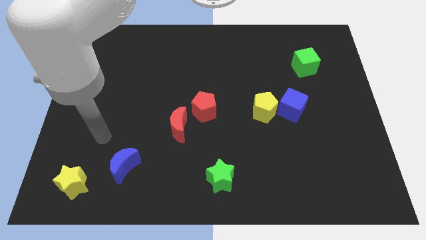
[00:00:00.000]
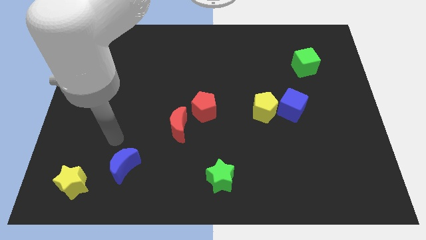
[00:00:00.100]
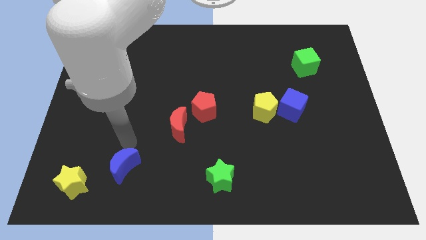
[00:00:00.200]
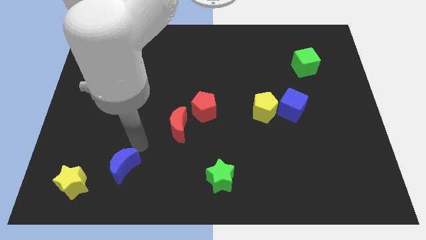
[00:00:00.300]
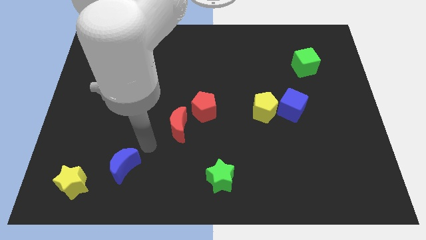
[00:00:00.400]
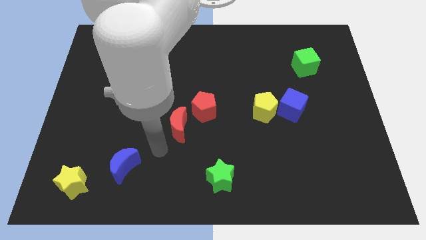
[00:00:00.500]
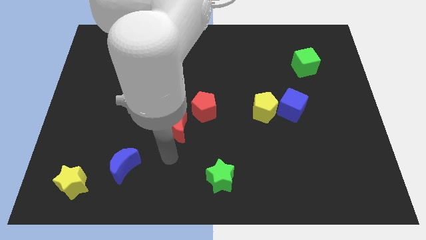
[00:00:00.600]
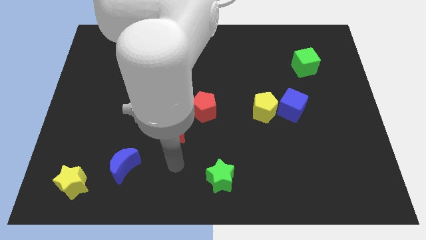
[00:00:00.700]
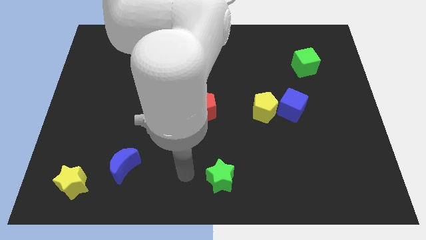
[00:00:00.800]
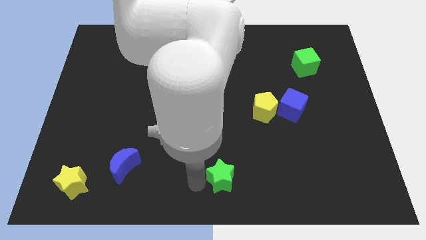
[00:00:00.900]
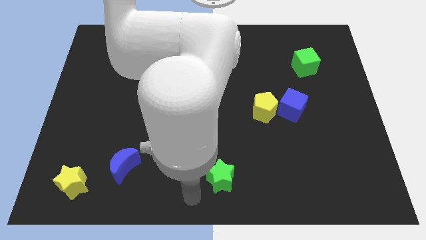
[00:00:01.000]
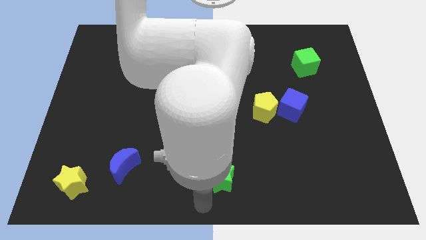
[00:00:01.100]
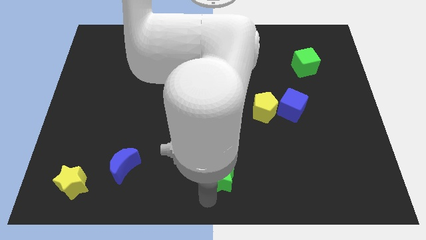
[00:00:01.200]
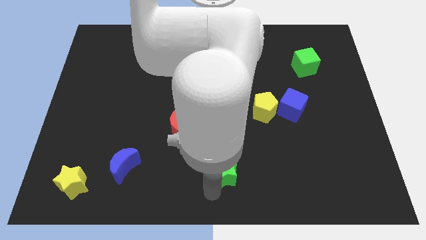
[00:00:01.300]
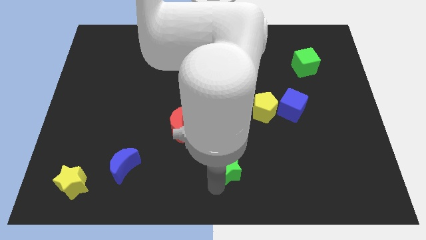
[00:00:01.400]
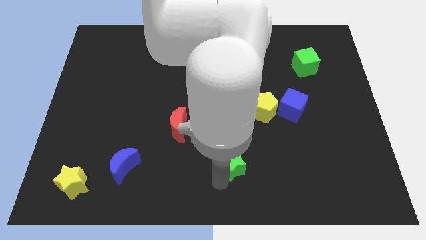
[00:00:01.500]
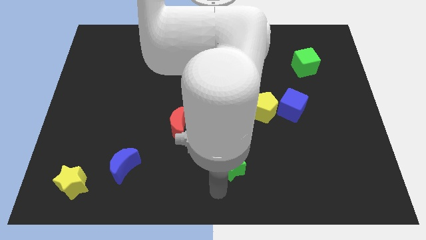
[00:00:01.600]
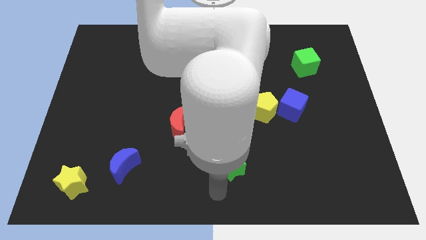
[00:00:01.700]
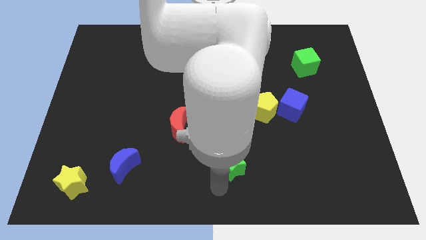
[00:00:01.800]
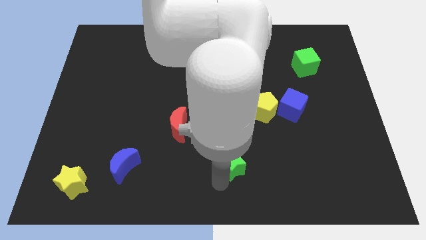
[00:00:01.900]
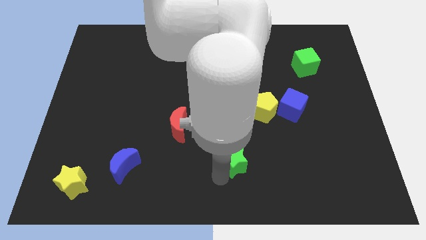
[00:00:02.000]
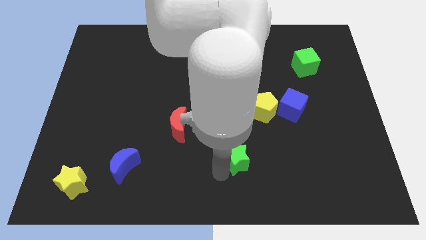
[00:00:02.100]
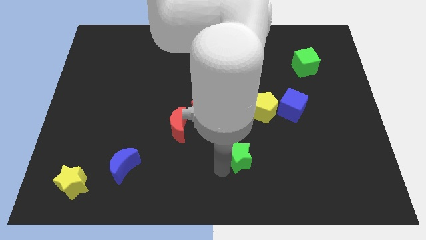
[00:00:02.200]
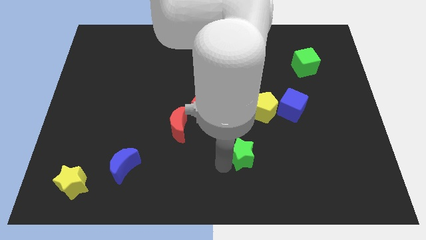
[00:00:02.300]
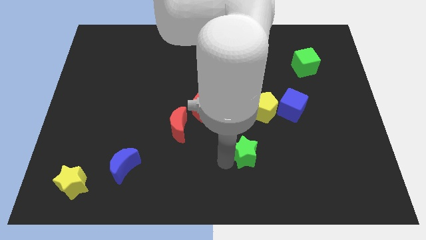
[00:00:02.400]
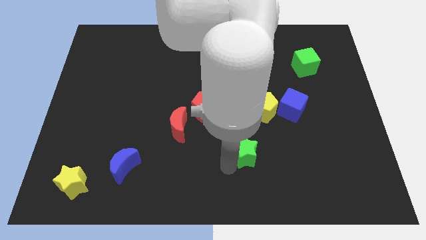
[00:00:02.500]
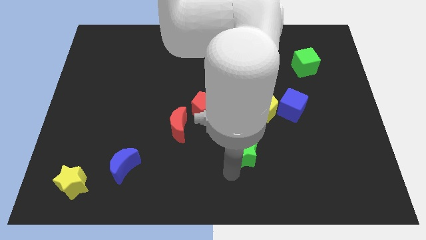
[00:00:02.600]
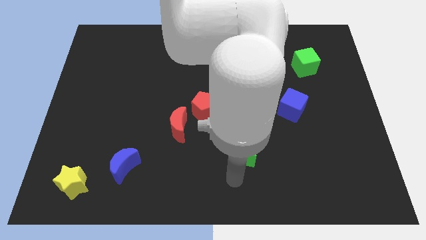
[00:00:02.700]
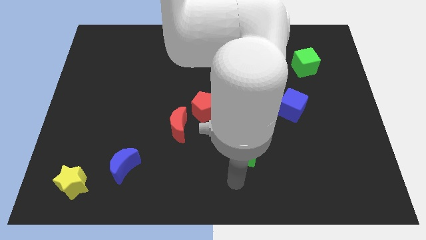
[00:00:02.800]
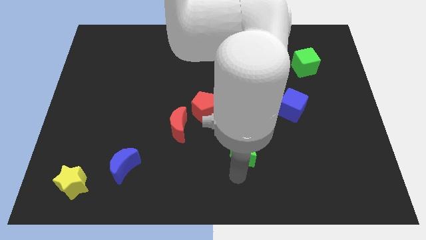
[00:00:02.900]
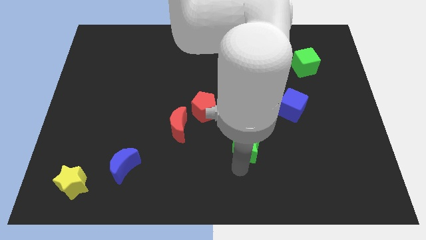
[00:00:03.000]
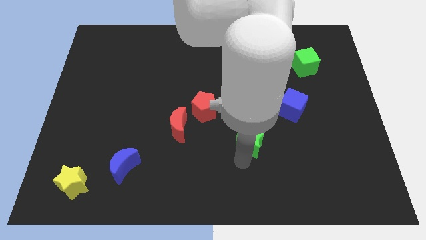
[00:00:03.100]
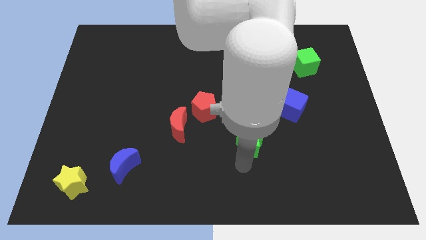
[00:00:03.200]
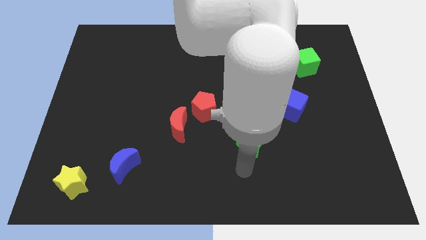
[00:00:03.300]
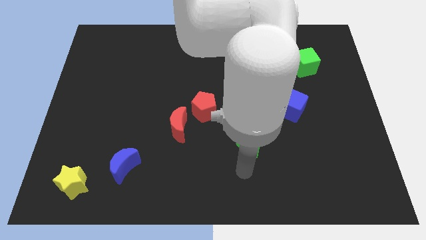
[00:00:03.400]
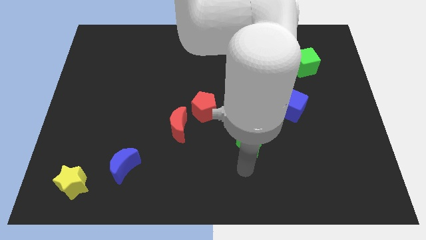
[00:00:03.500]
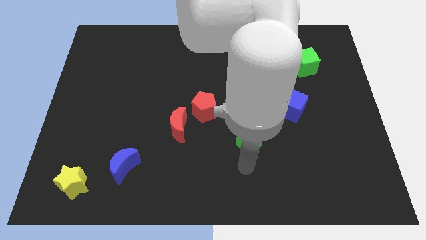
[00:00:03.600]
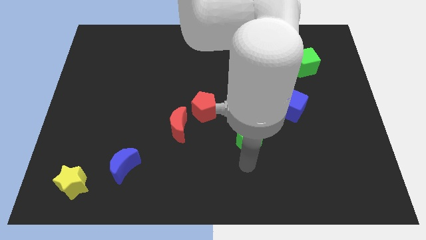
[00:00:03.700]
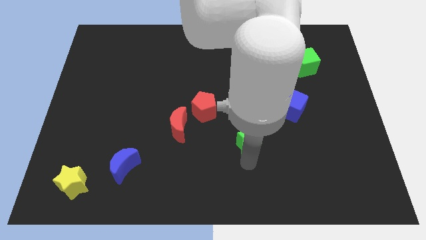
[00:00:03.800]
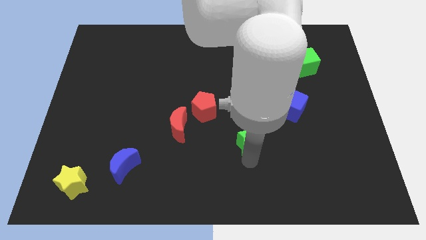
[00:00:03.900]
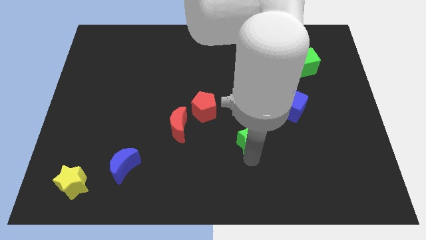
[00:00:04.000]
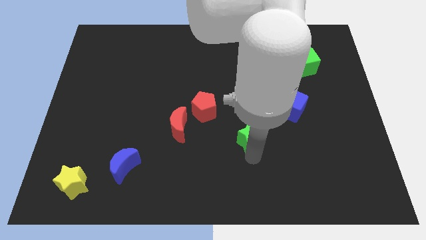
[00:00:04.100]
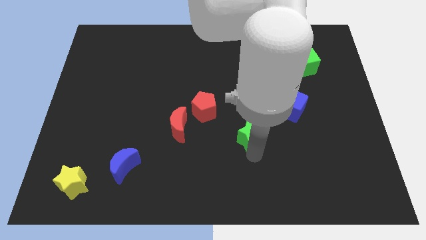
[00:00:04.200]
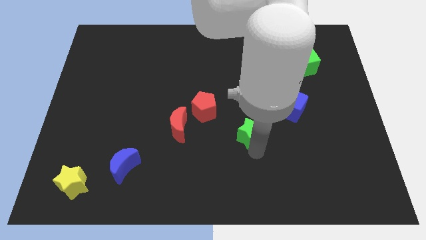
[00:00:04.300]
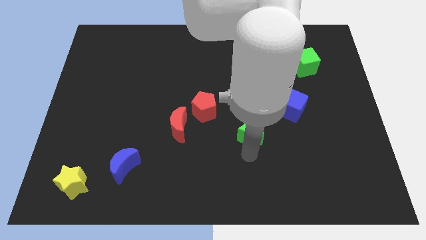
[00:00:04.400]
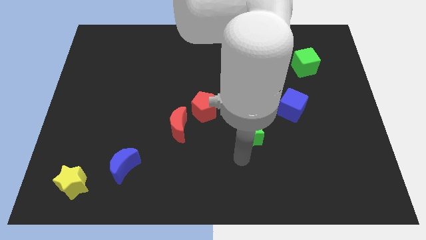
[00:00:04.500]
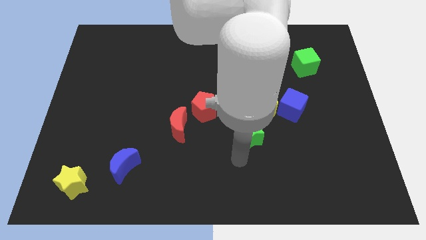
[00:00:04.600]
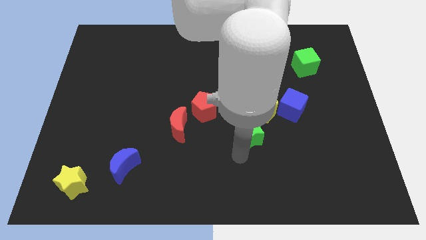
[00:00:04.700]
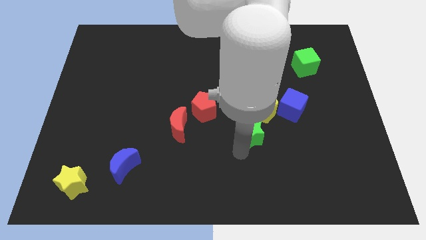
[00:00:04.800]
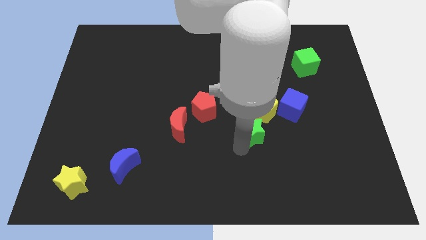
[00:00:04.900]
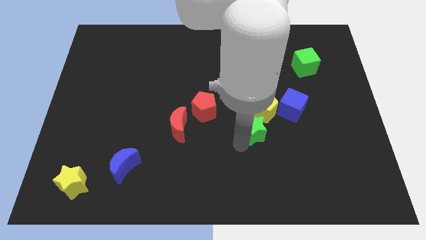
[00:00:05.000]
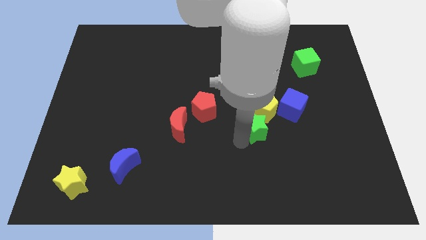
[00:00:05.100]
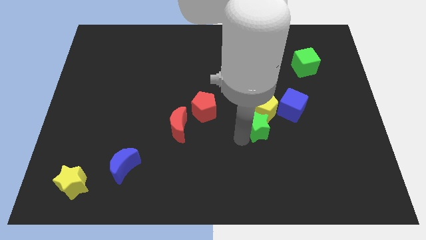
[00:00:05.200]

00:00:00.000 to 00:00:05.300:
put the green star next to the yellow pentagon

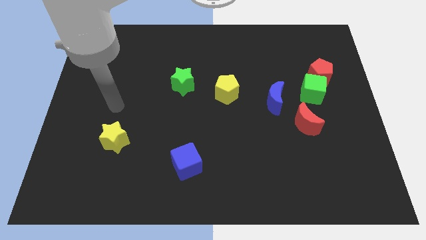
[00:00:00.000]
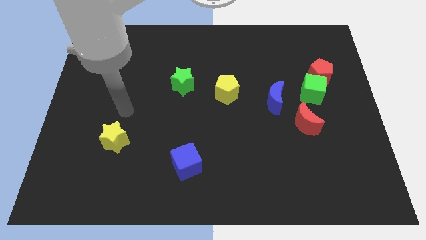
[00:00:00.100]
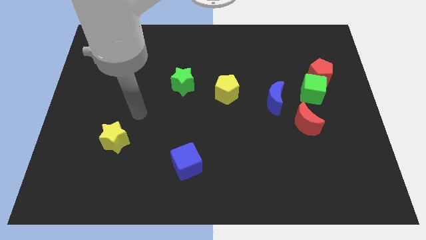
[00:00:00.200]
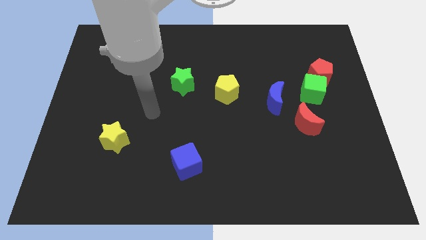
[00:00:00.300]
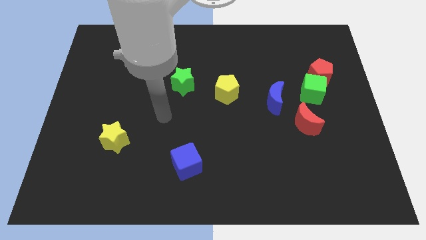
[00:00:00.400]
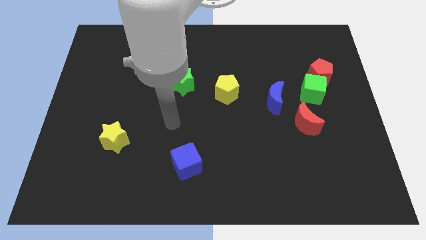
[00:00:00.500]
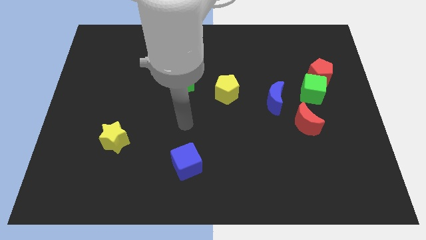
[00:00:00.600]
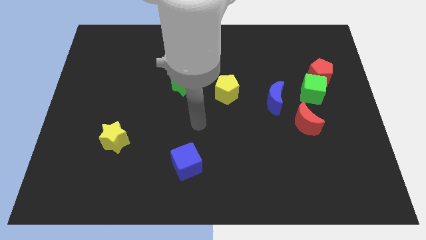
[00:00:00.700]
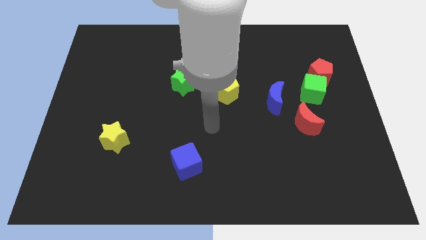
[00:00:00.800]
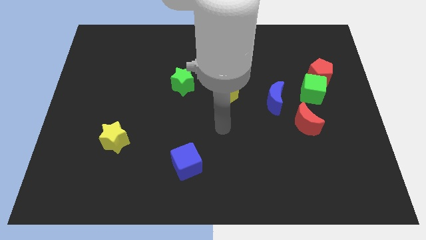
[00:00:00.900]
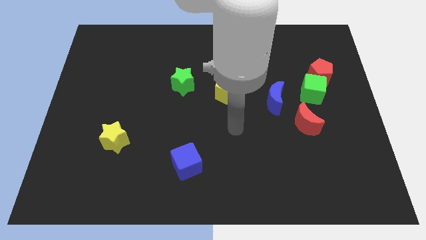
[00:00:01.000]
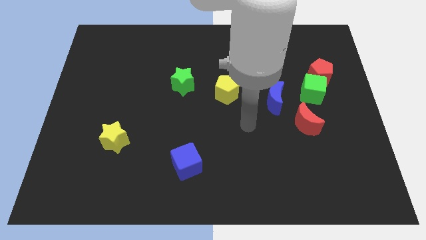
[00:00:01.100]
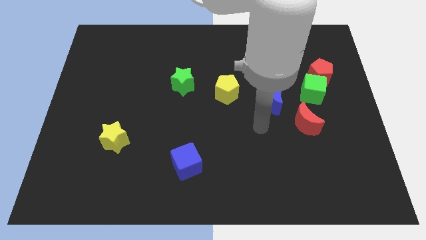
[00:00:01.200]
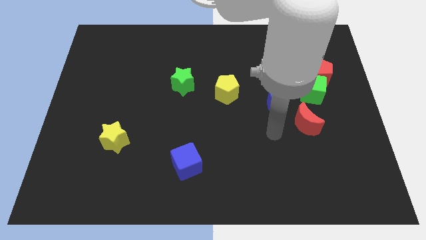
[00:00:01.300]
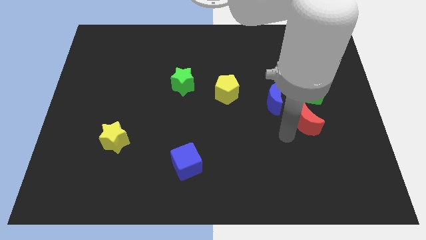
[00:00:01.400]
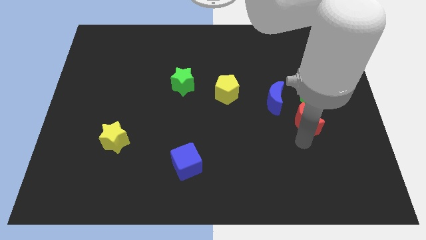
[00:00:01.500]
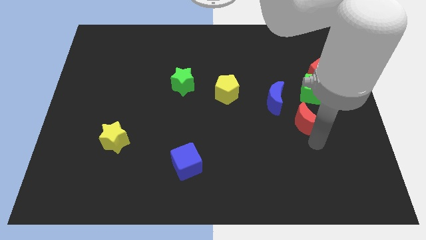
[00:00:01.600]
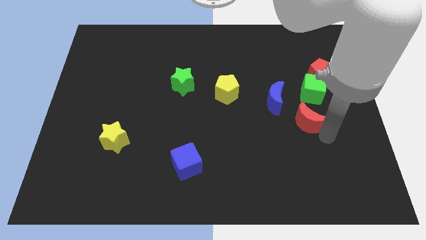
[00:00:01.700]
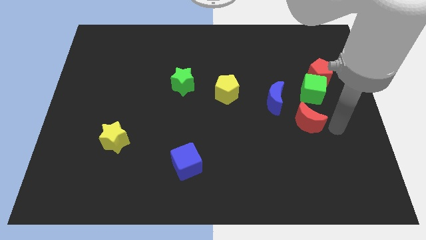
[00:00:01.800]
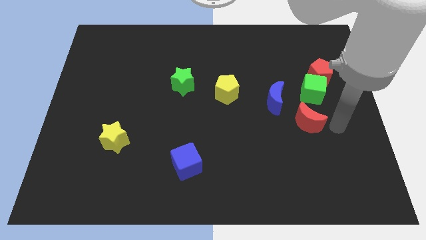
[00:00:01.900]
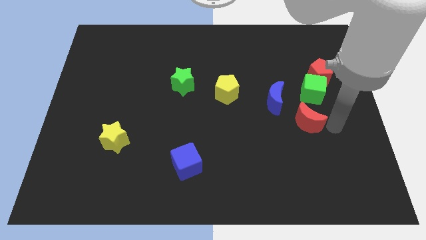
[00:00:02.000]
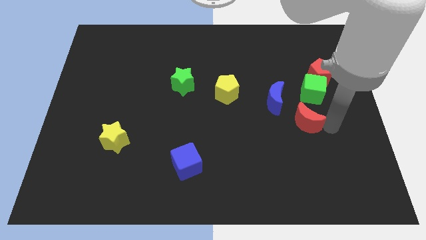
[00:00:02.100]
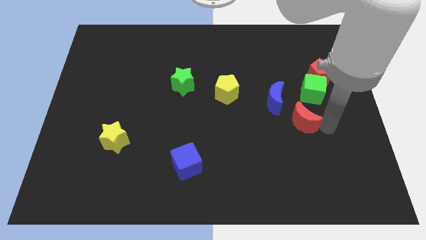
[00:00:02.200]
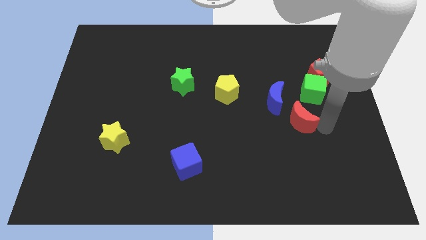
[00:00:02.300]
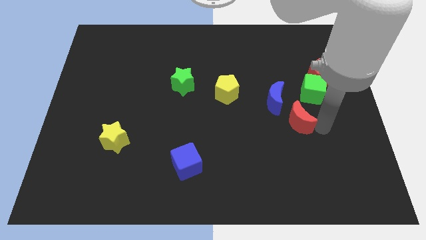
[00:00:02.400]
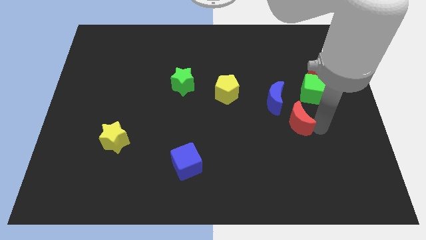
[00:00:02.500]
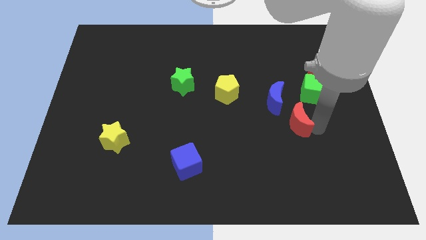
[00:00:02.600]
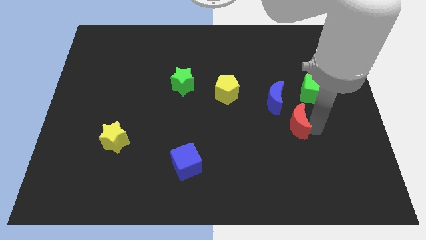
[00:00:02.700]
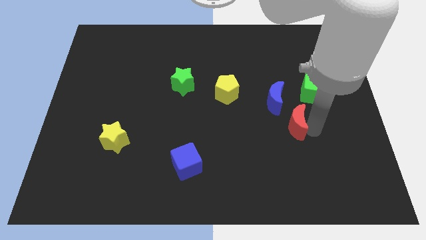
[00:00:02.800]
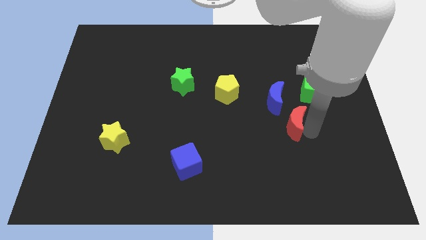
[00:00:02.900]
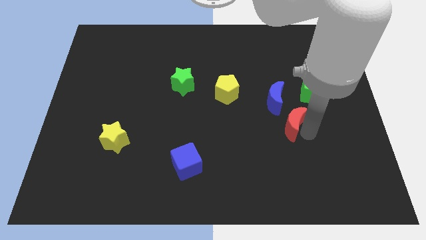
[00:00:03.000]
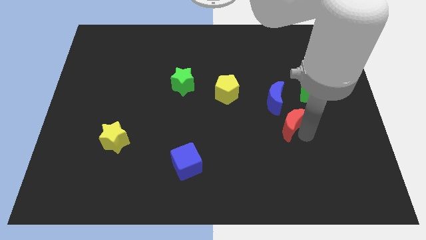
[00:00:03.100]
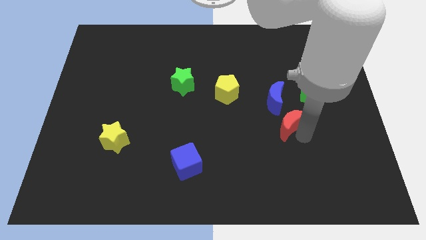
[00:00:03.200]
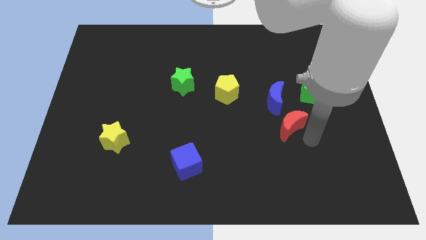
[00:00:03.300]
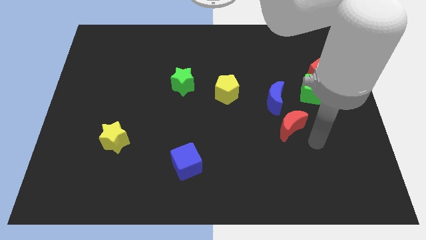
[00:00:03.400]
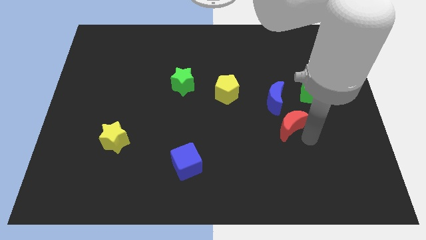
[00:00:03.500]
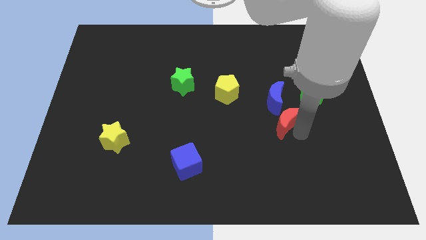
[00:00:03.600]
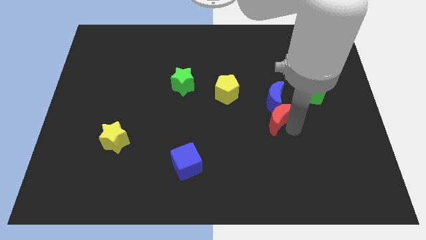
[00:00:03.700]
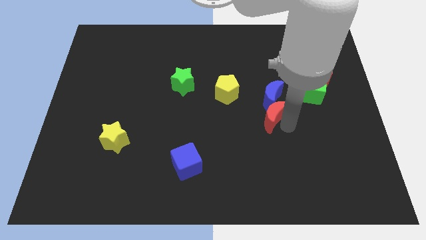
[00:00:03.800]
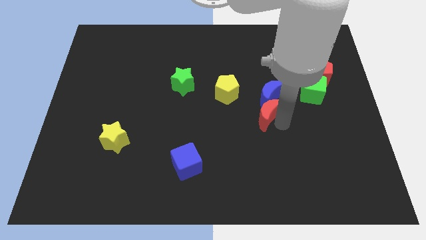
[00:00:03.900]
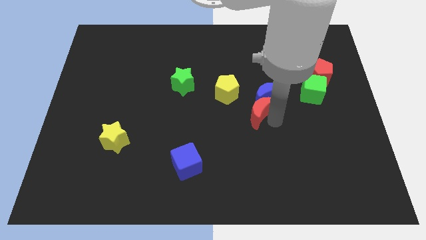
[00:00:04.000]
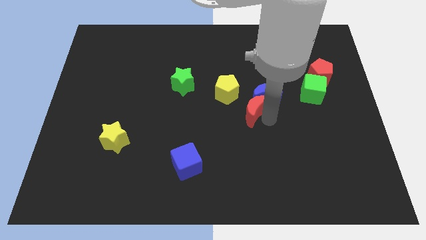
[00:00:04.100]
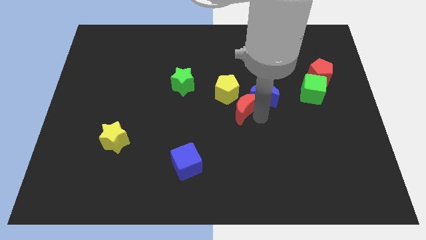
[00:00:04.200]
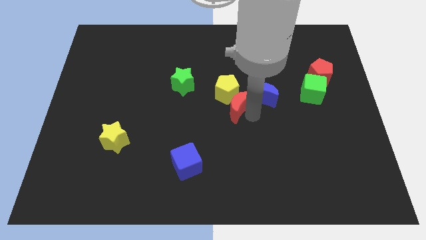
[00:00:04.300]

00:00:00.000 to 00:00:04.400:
slide the red moon towards the yellow pentagon
